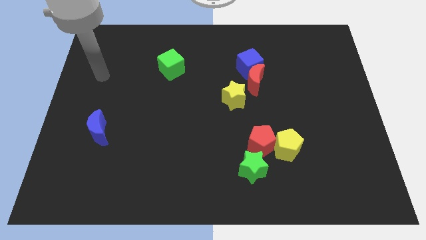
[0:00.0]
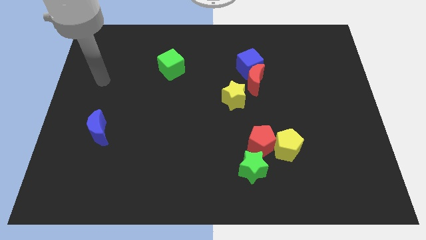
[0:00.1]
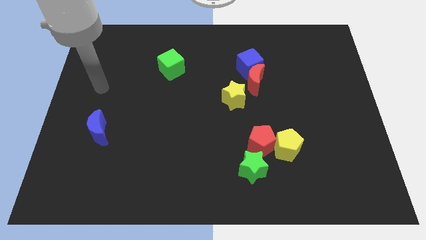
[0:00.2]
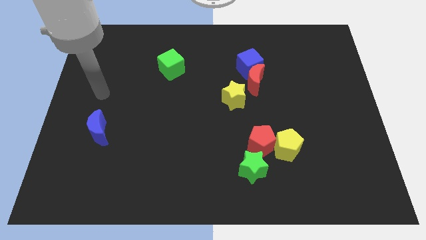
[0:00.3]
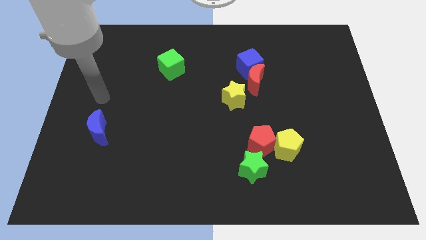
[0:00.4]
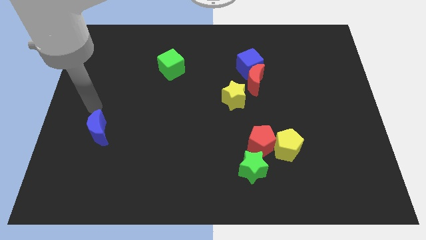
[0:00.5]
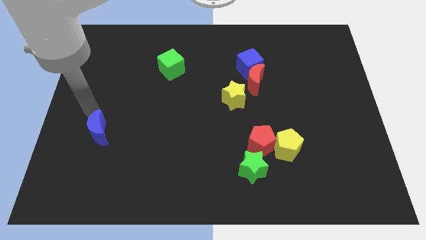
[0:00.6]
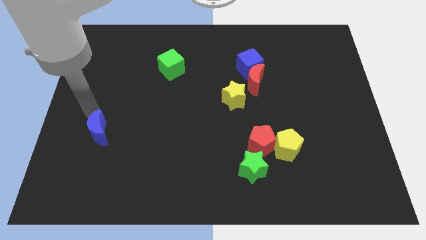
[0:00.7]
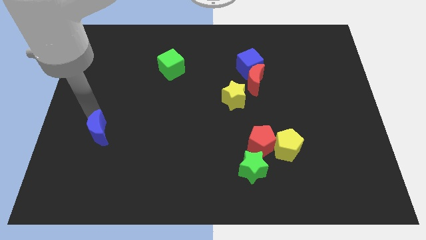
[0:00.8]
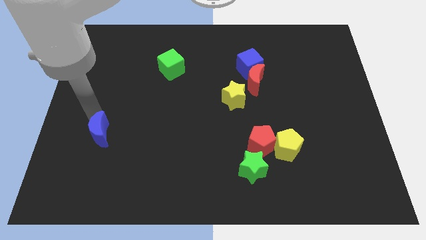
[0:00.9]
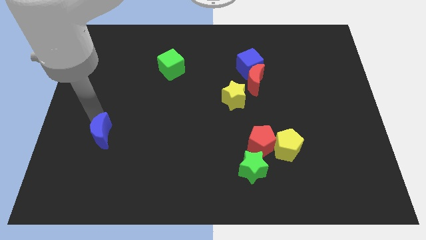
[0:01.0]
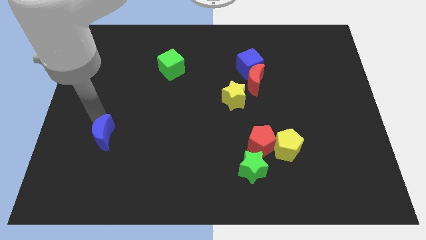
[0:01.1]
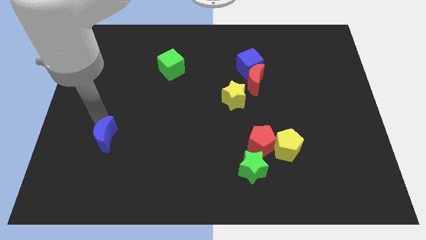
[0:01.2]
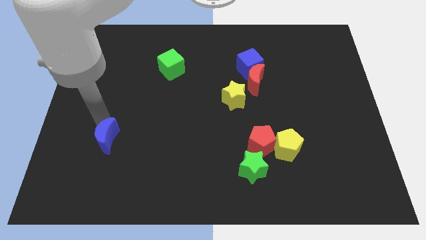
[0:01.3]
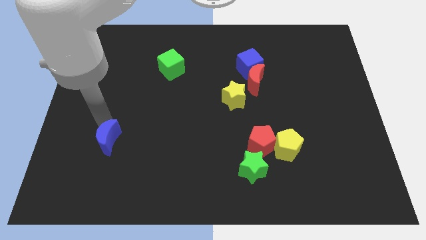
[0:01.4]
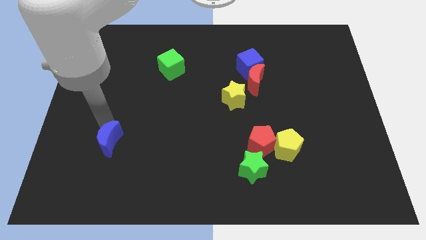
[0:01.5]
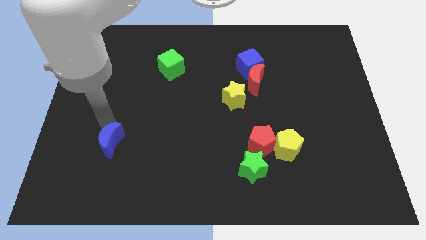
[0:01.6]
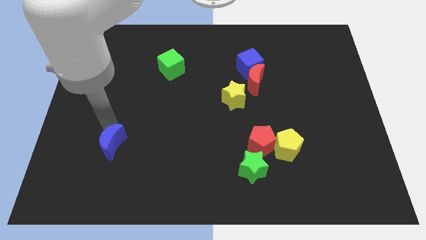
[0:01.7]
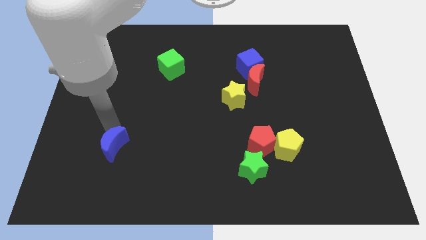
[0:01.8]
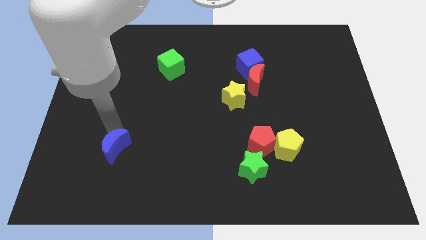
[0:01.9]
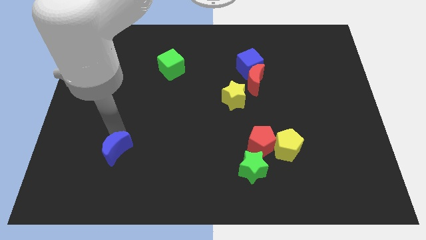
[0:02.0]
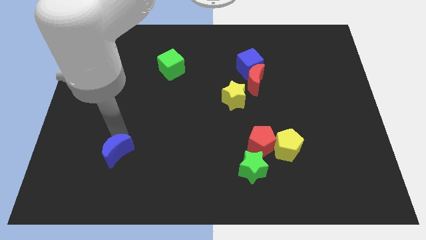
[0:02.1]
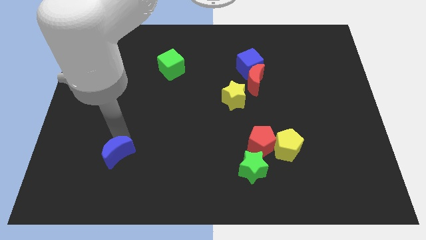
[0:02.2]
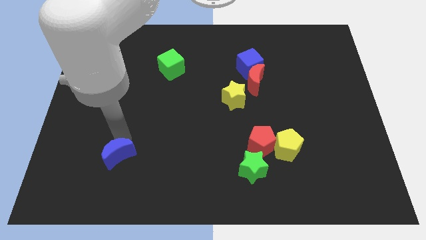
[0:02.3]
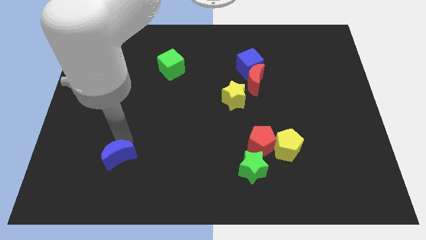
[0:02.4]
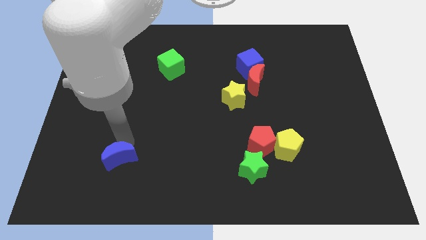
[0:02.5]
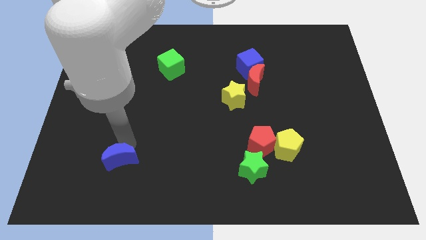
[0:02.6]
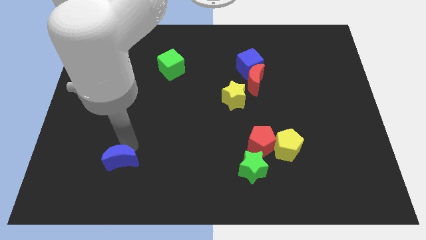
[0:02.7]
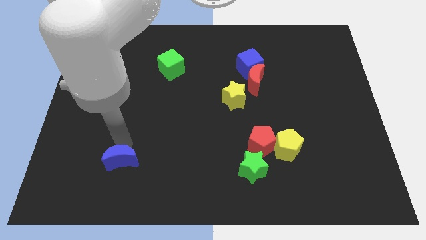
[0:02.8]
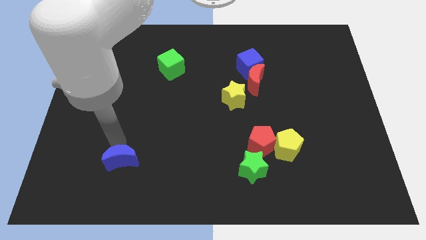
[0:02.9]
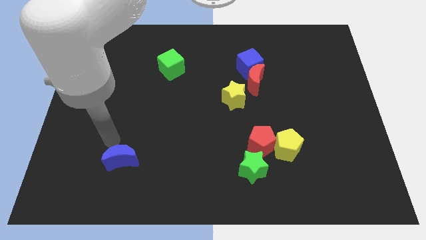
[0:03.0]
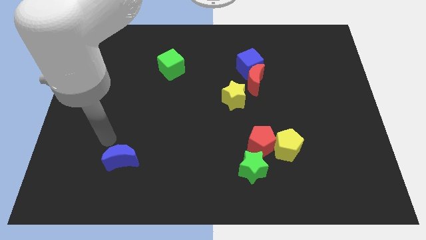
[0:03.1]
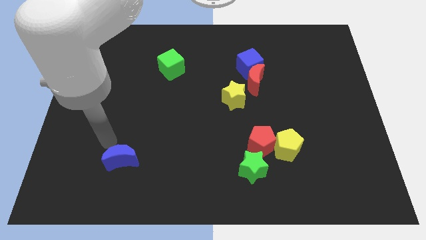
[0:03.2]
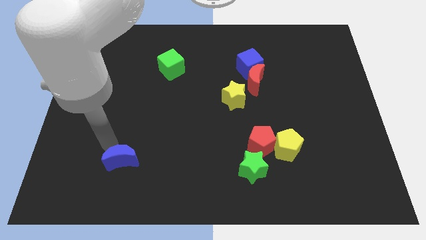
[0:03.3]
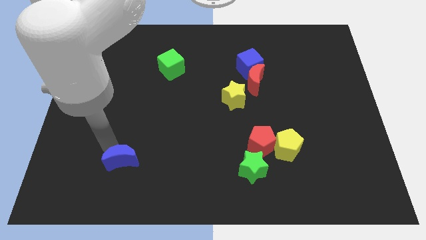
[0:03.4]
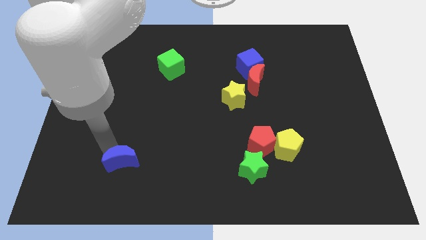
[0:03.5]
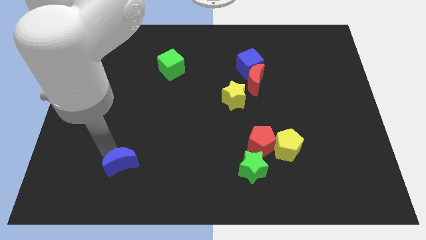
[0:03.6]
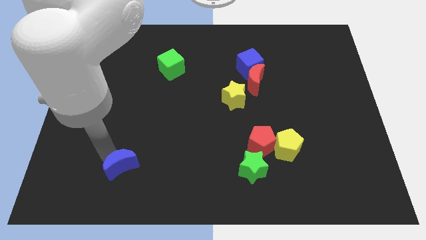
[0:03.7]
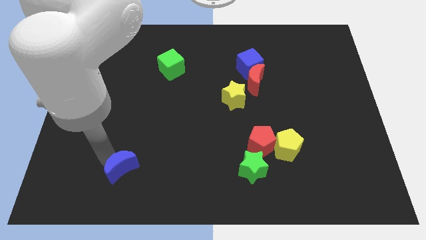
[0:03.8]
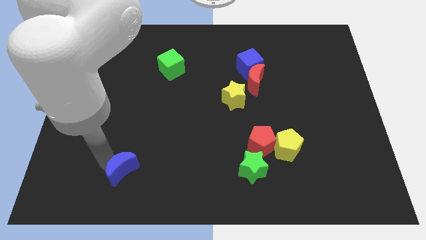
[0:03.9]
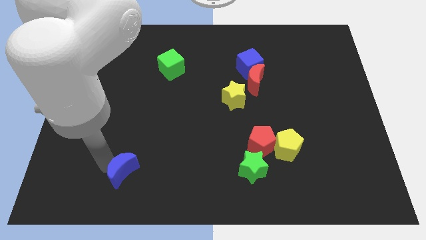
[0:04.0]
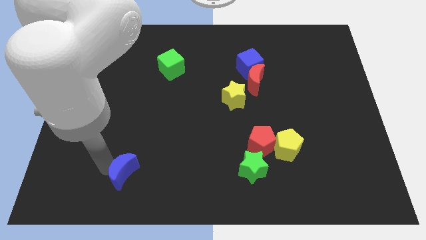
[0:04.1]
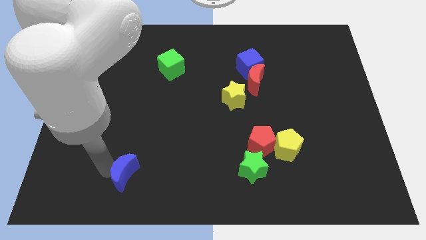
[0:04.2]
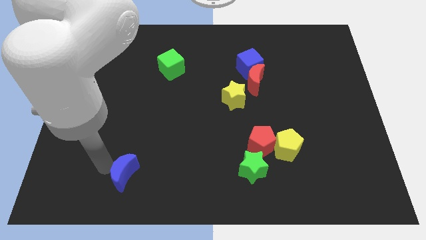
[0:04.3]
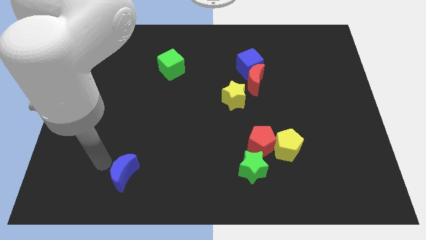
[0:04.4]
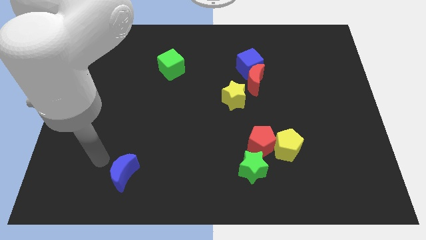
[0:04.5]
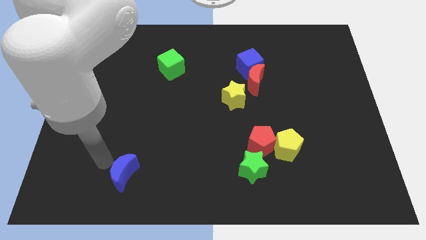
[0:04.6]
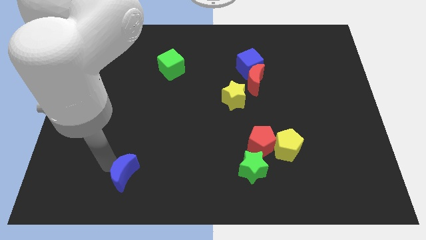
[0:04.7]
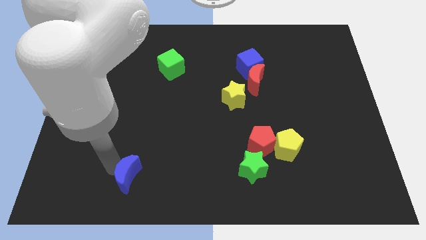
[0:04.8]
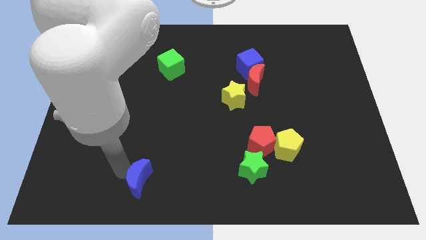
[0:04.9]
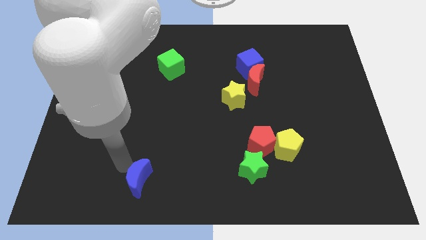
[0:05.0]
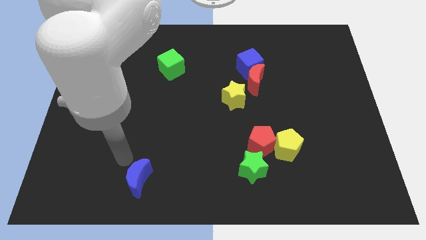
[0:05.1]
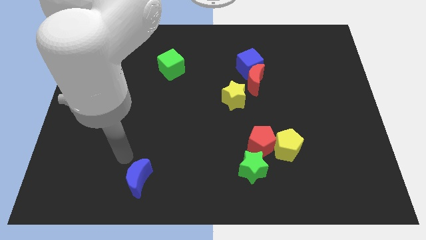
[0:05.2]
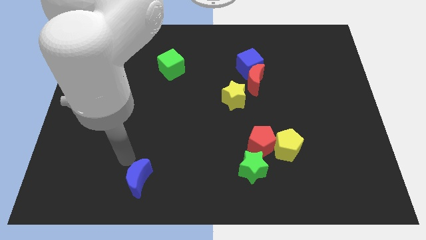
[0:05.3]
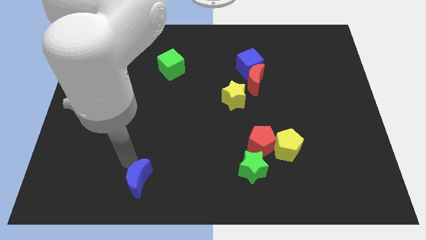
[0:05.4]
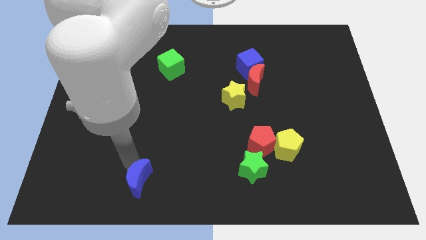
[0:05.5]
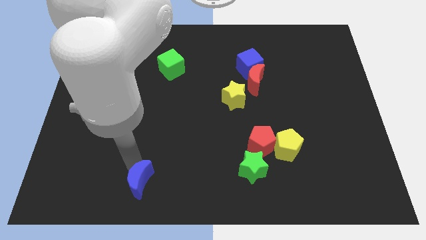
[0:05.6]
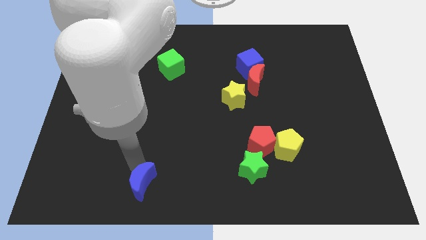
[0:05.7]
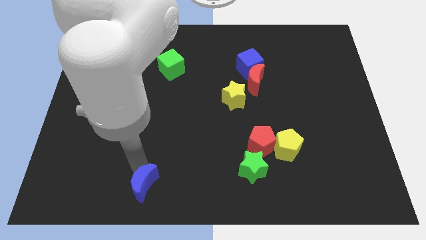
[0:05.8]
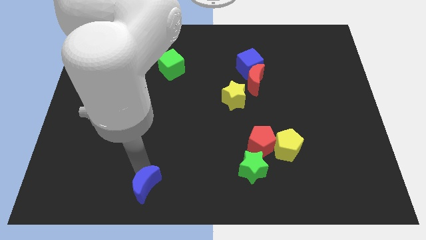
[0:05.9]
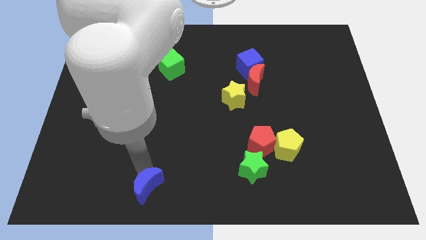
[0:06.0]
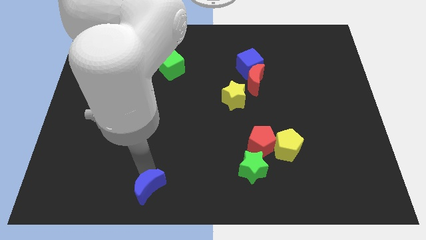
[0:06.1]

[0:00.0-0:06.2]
push the blue moon to the bottom side
